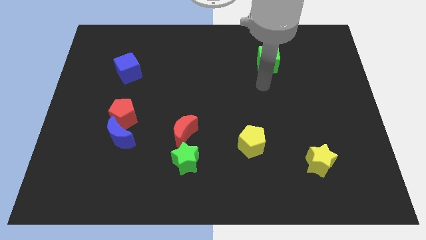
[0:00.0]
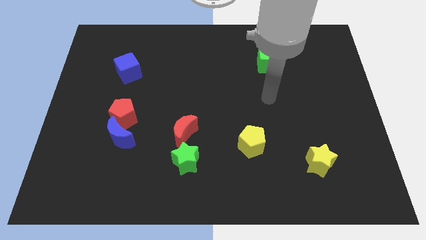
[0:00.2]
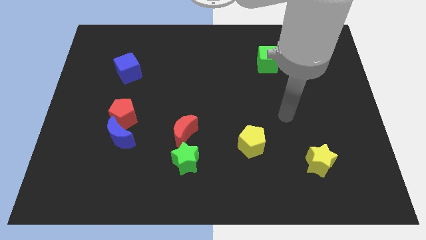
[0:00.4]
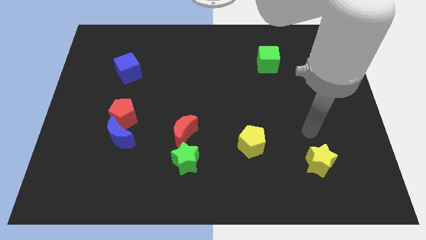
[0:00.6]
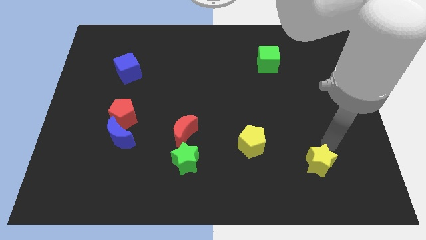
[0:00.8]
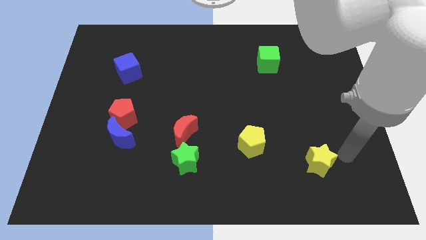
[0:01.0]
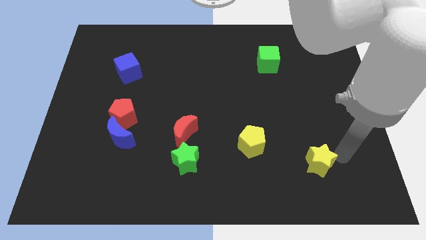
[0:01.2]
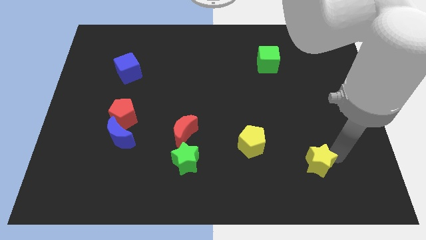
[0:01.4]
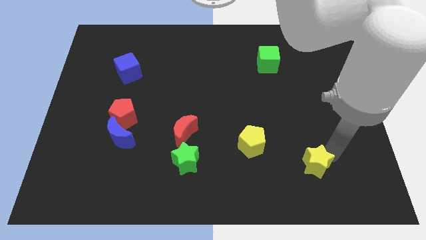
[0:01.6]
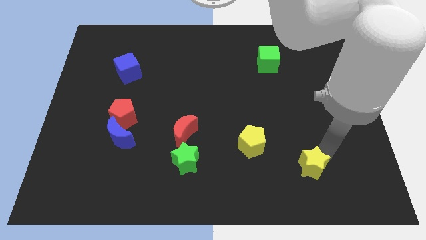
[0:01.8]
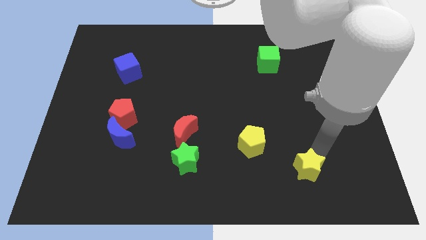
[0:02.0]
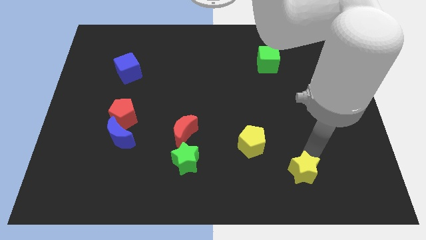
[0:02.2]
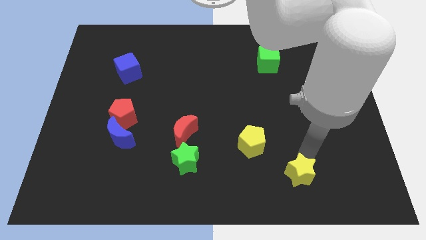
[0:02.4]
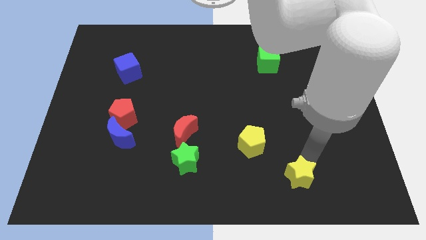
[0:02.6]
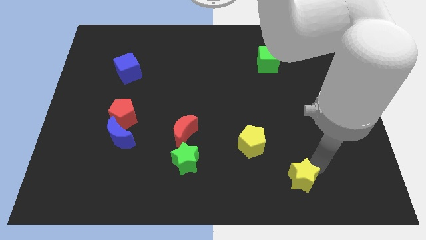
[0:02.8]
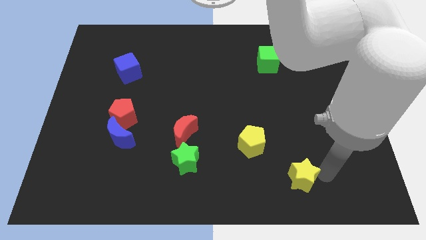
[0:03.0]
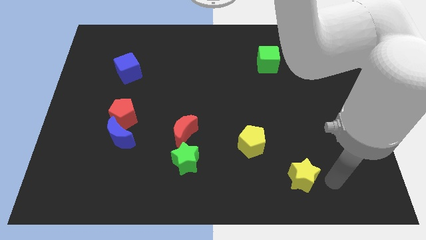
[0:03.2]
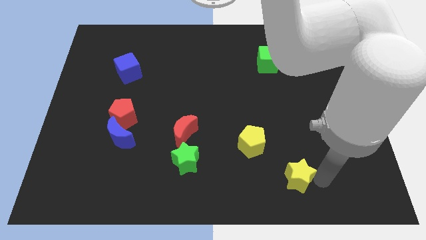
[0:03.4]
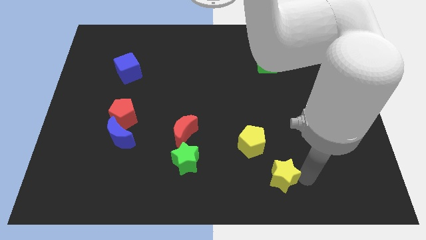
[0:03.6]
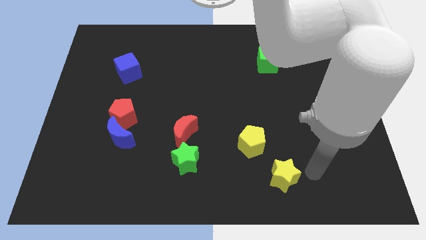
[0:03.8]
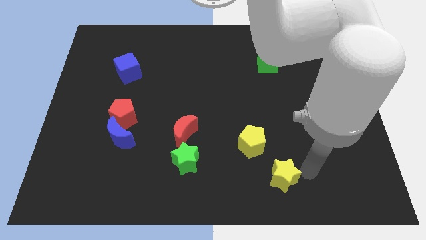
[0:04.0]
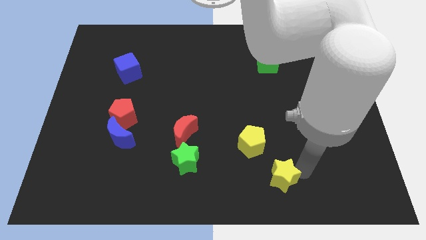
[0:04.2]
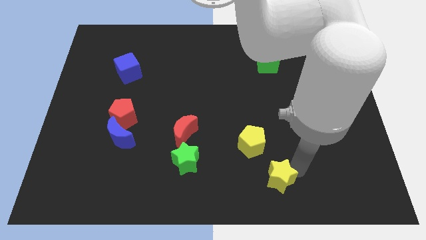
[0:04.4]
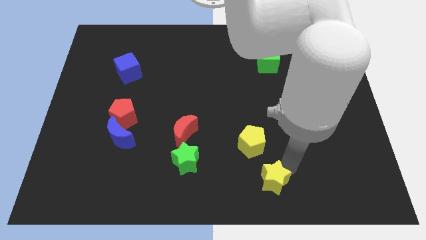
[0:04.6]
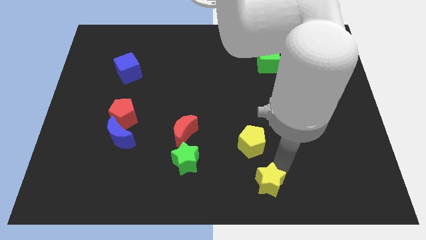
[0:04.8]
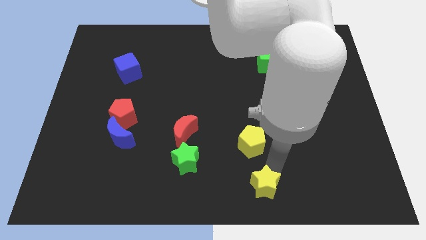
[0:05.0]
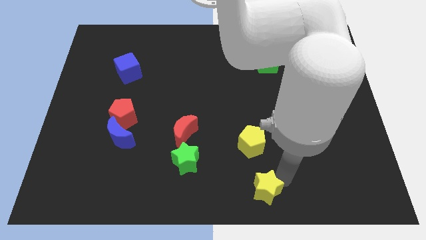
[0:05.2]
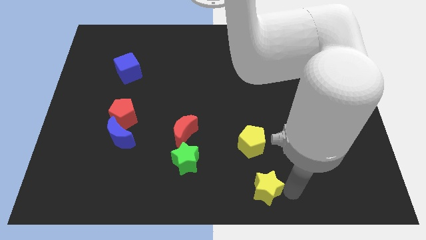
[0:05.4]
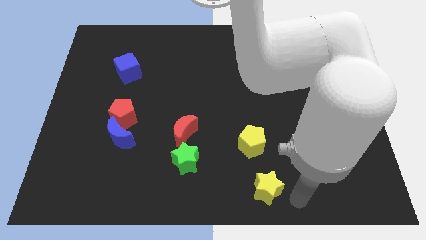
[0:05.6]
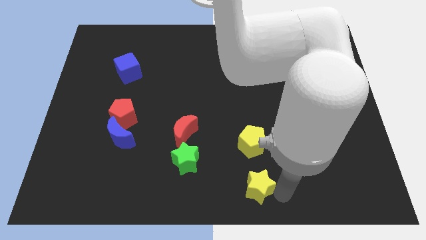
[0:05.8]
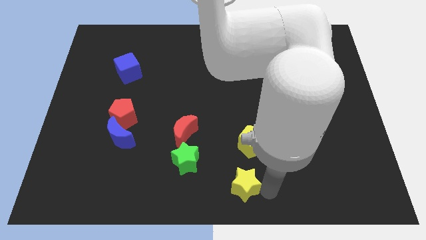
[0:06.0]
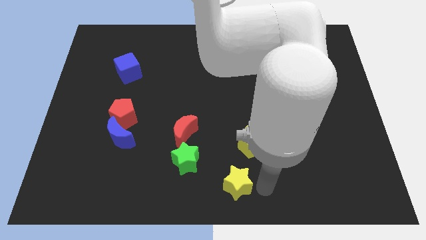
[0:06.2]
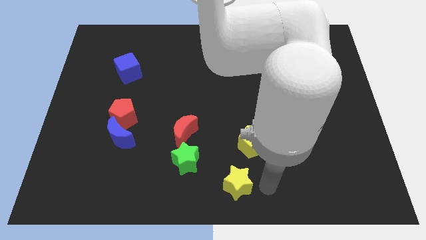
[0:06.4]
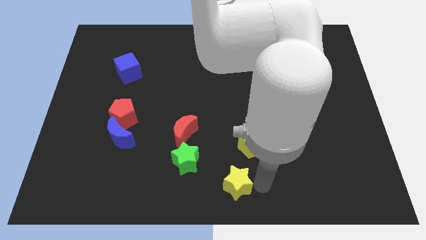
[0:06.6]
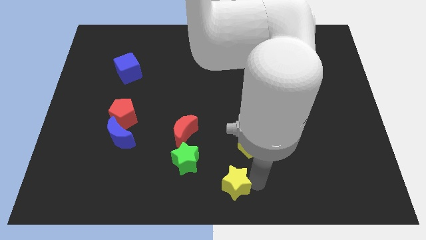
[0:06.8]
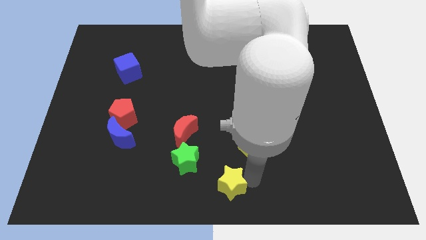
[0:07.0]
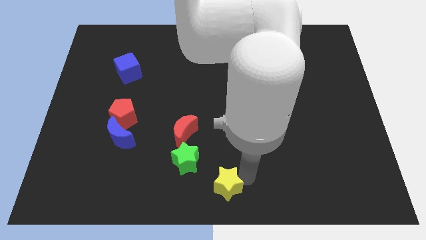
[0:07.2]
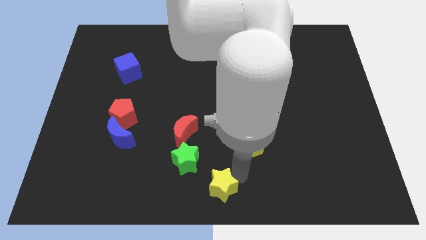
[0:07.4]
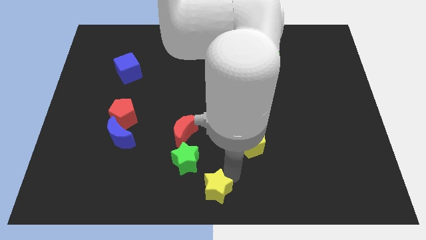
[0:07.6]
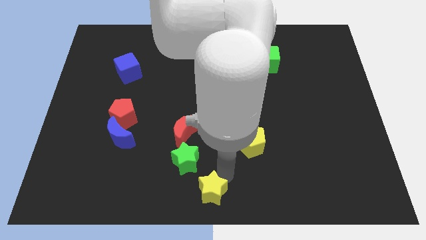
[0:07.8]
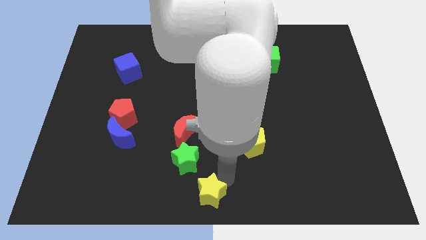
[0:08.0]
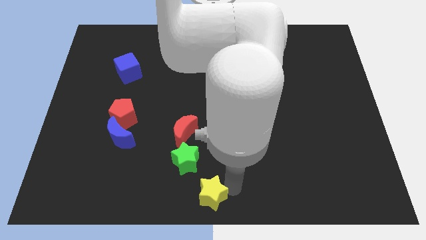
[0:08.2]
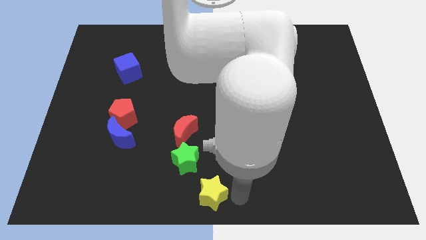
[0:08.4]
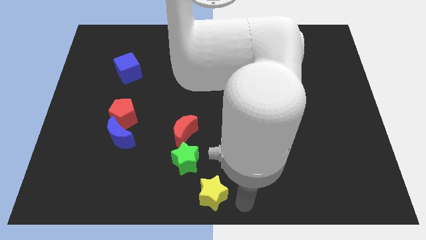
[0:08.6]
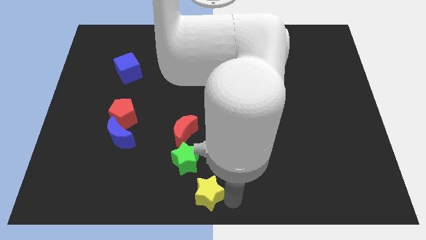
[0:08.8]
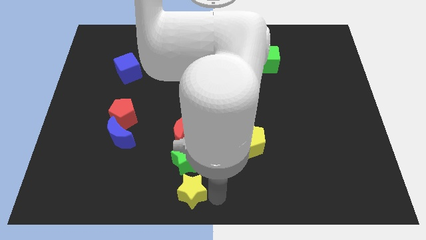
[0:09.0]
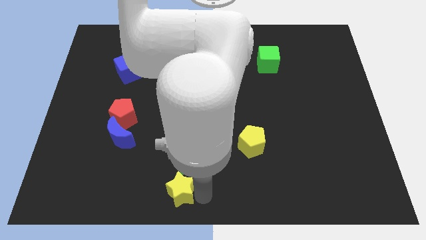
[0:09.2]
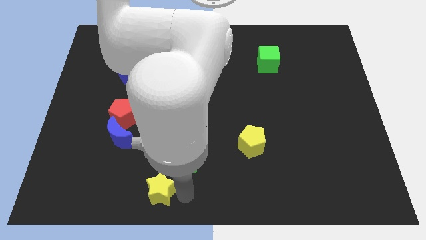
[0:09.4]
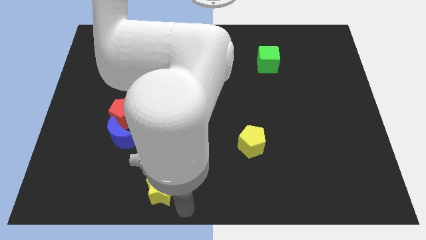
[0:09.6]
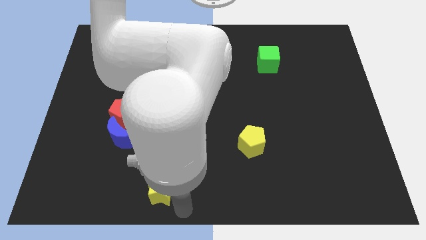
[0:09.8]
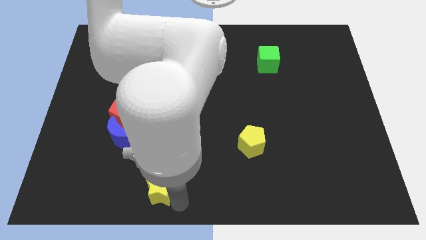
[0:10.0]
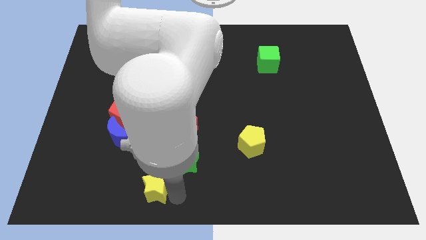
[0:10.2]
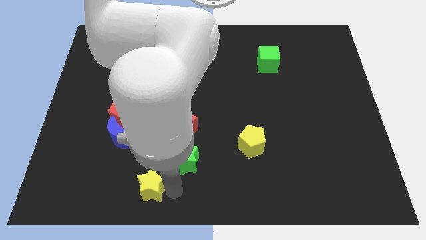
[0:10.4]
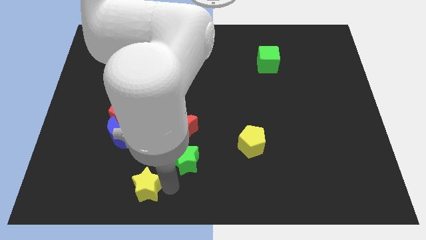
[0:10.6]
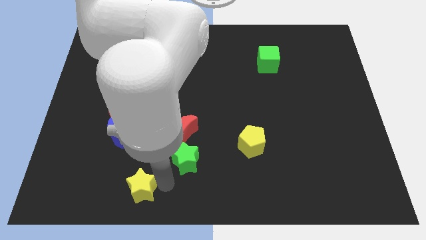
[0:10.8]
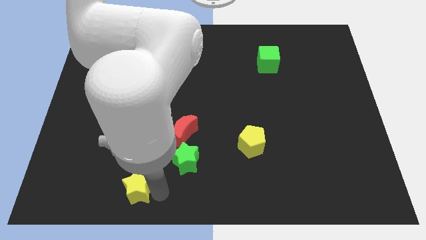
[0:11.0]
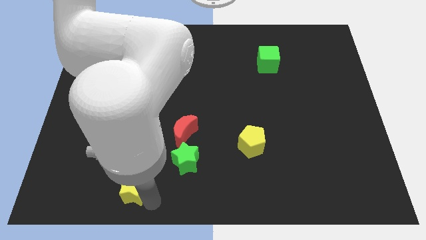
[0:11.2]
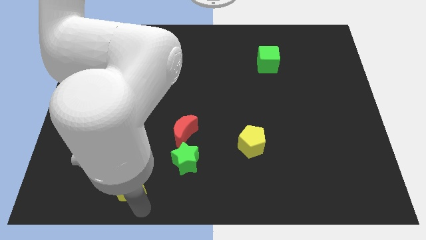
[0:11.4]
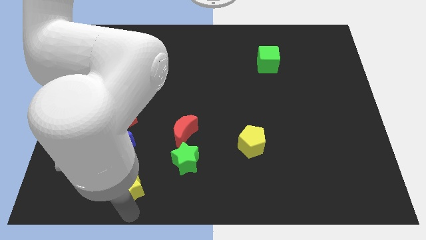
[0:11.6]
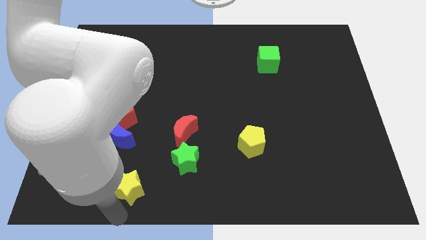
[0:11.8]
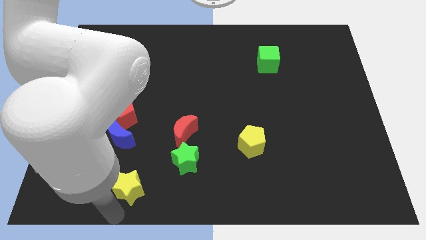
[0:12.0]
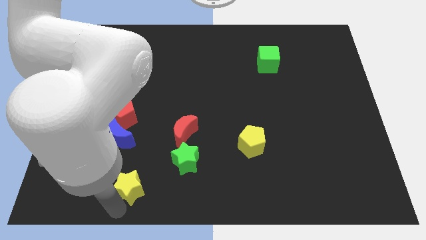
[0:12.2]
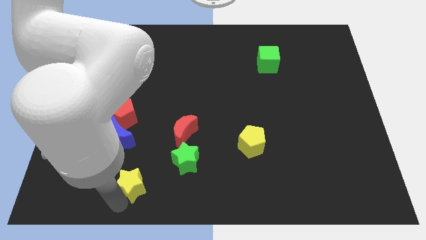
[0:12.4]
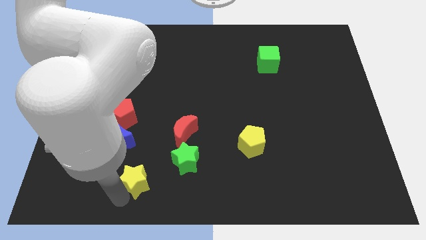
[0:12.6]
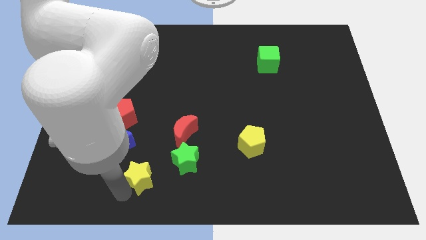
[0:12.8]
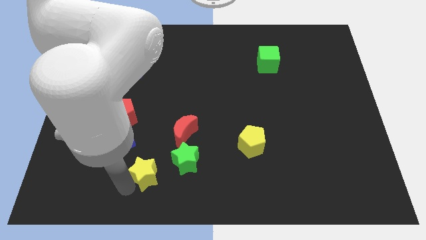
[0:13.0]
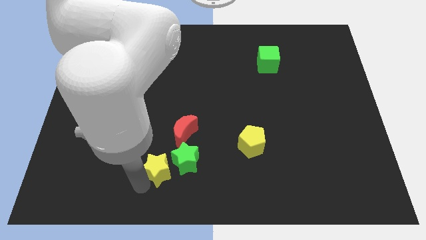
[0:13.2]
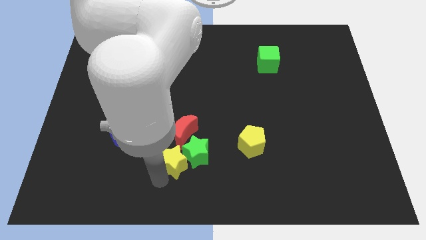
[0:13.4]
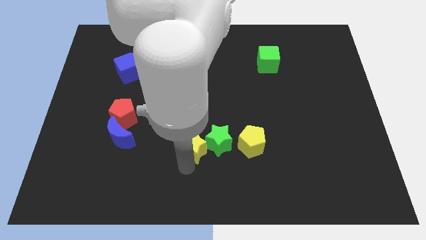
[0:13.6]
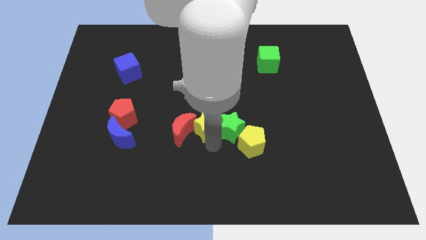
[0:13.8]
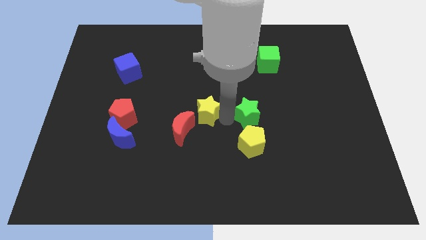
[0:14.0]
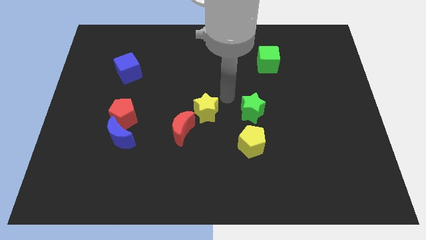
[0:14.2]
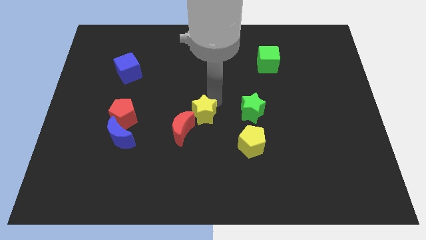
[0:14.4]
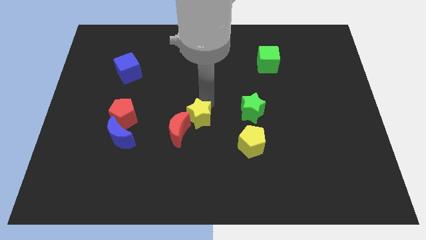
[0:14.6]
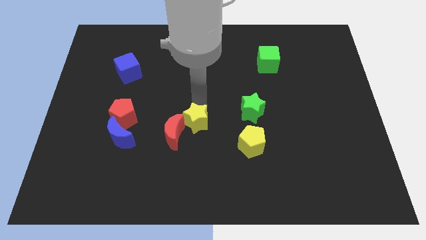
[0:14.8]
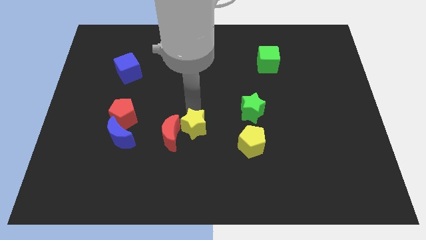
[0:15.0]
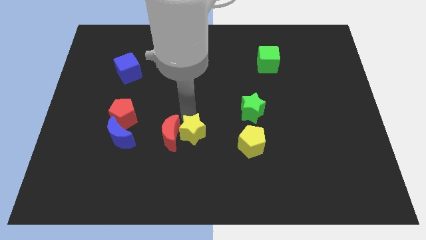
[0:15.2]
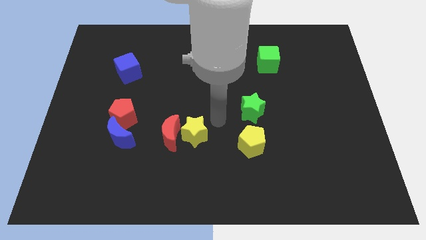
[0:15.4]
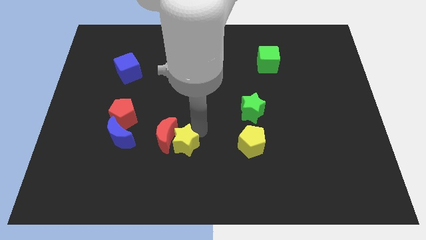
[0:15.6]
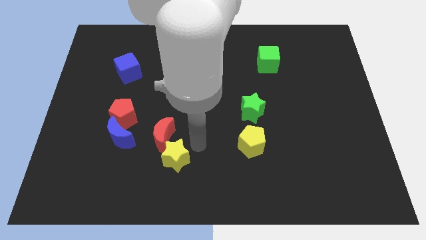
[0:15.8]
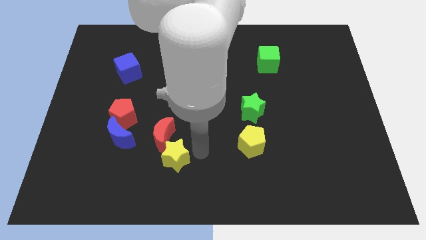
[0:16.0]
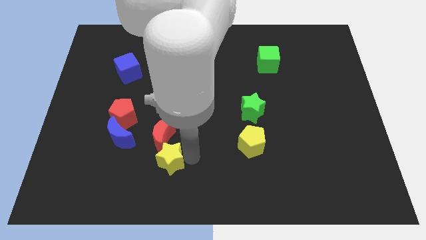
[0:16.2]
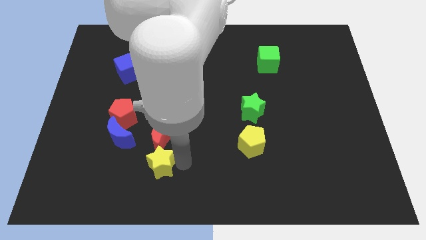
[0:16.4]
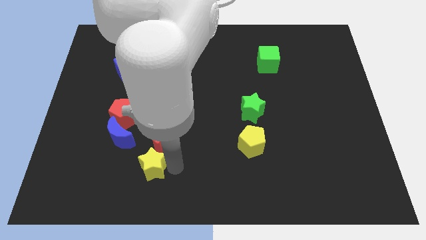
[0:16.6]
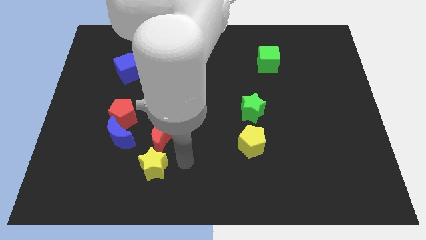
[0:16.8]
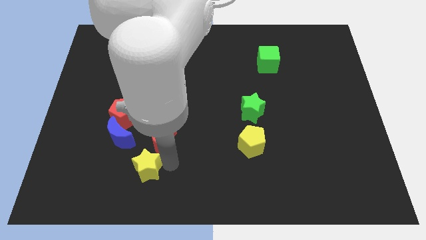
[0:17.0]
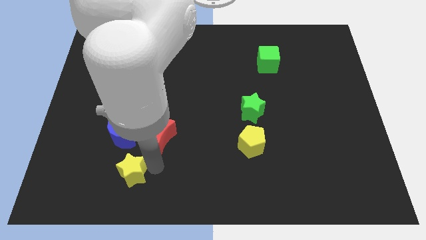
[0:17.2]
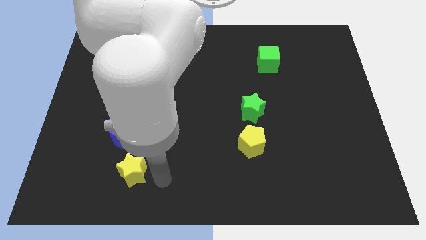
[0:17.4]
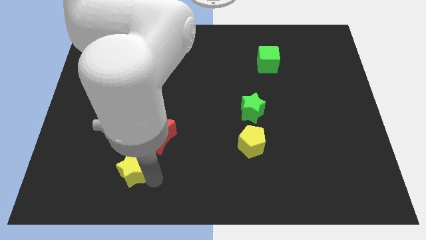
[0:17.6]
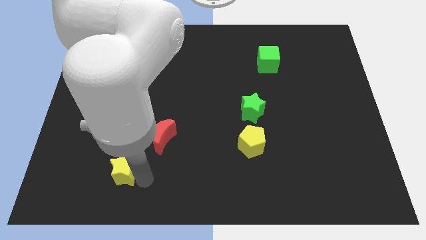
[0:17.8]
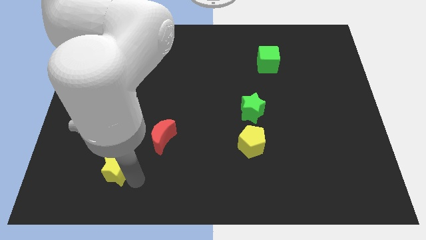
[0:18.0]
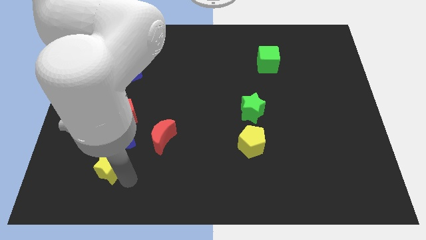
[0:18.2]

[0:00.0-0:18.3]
move the yellow star to the bottom left of the blue moon
